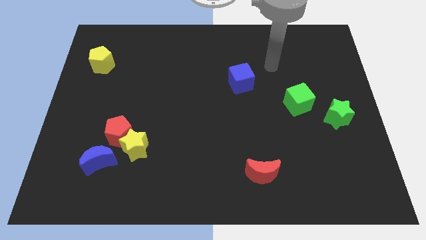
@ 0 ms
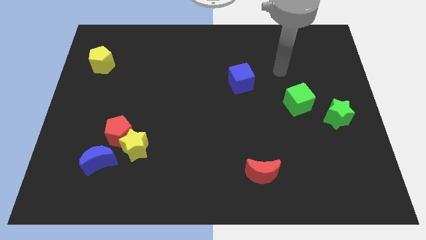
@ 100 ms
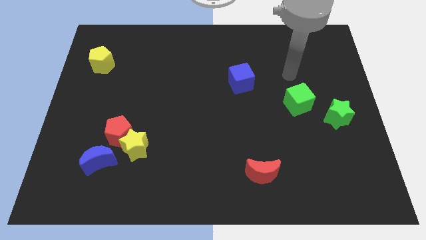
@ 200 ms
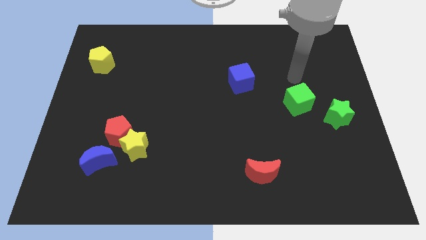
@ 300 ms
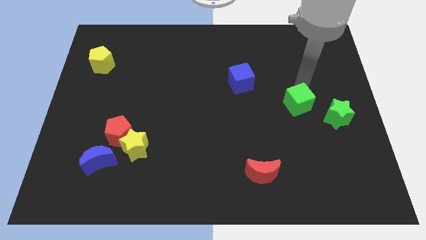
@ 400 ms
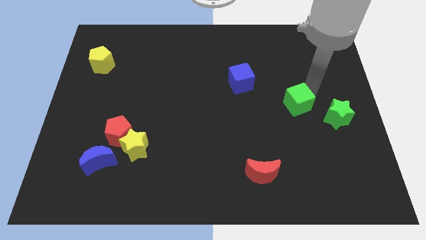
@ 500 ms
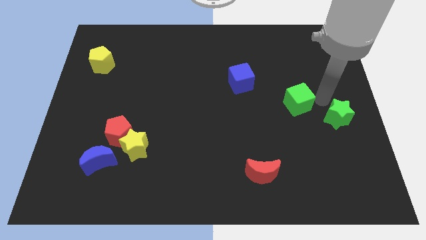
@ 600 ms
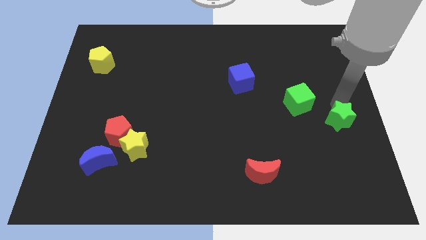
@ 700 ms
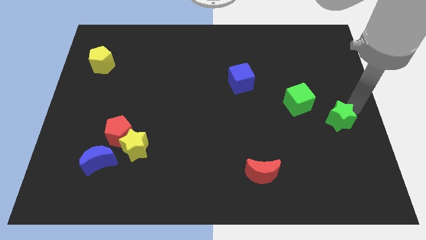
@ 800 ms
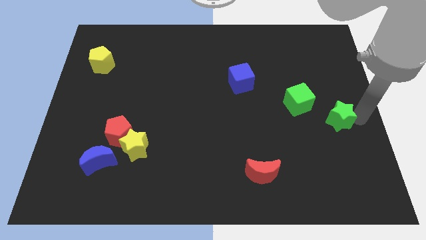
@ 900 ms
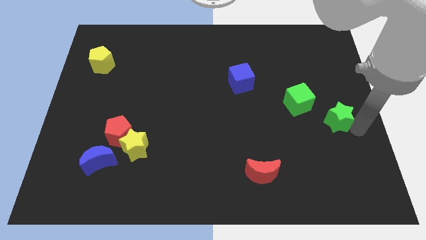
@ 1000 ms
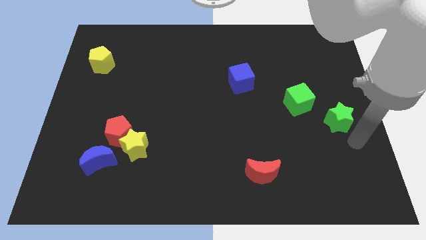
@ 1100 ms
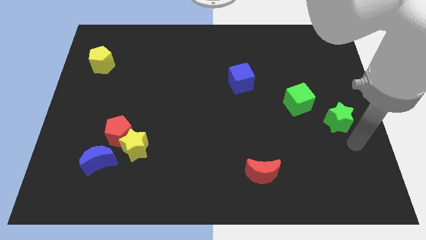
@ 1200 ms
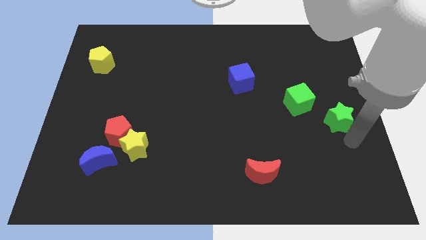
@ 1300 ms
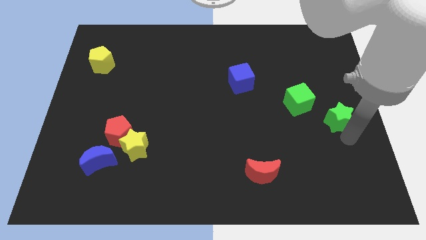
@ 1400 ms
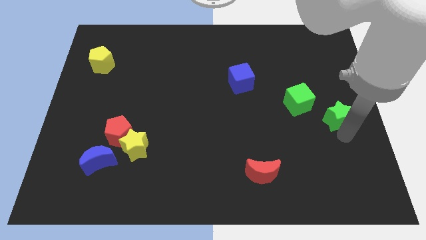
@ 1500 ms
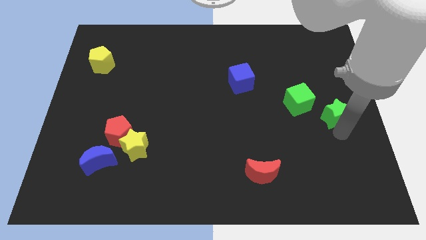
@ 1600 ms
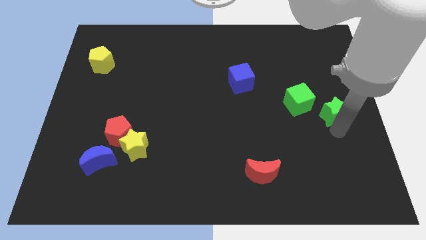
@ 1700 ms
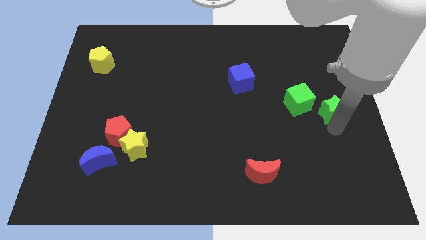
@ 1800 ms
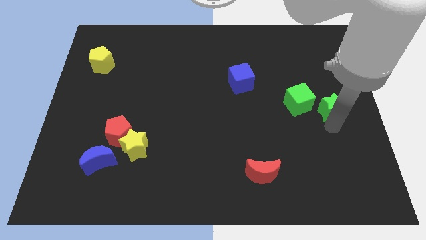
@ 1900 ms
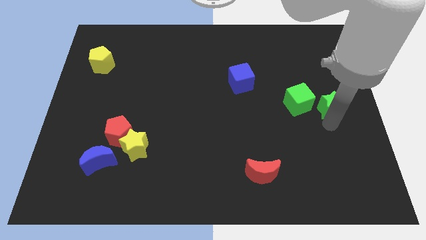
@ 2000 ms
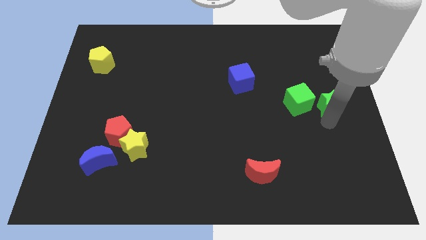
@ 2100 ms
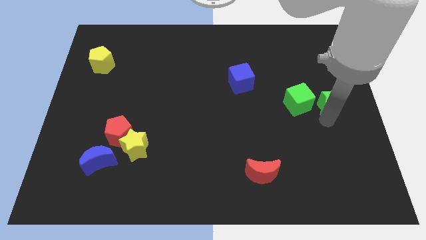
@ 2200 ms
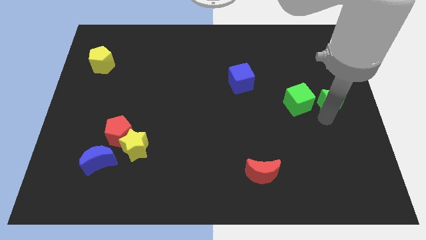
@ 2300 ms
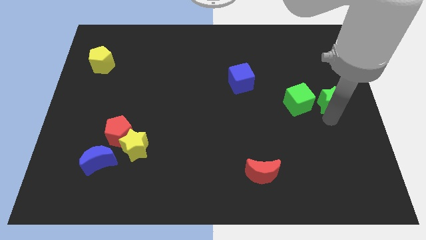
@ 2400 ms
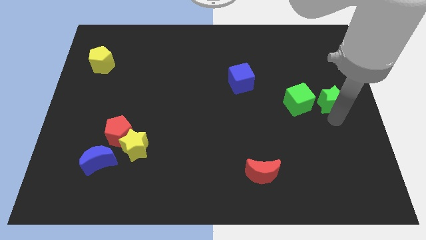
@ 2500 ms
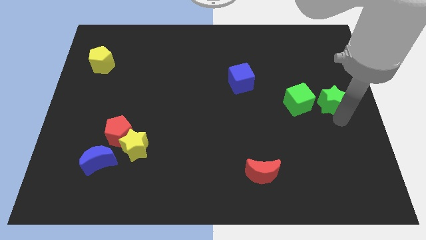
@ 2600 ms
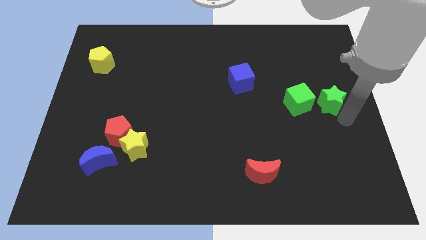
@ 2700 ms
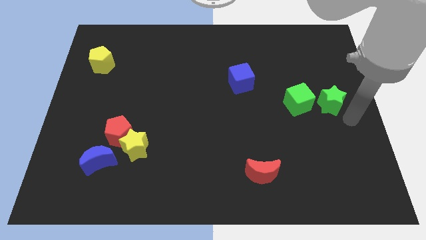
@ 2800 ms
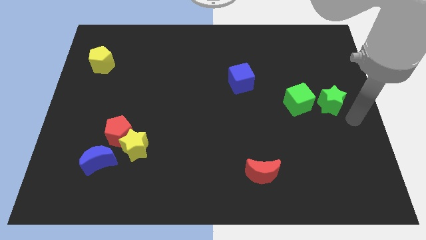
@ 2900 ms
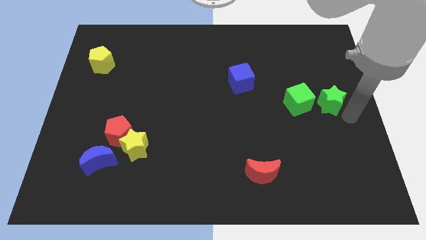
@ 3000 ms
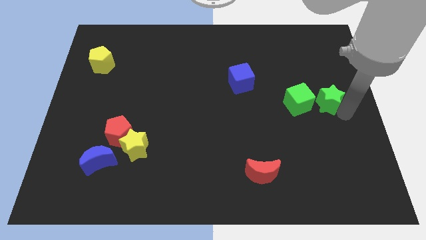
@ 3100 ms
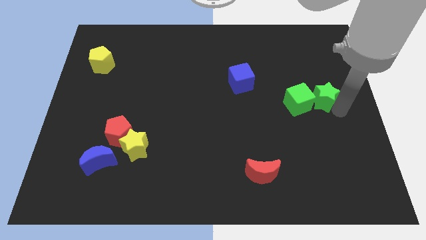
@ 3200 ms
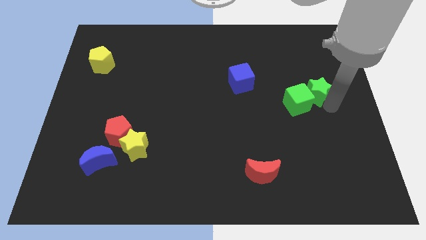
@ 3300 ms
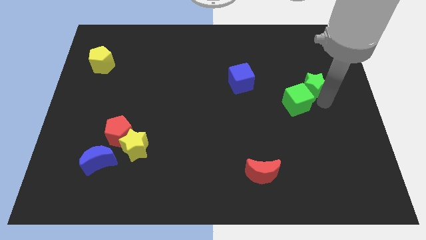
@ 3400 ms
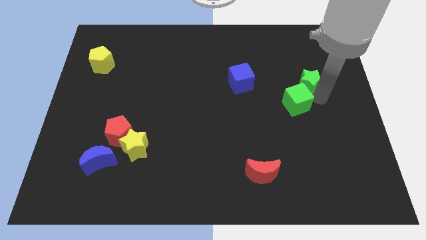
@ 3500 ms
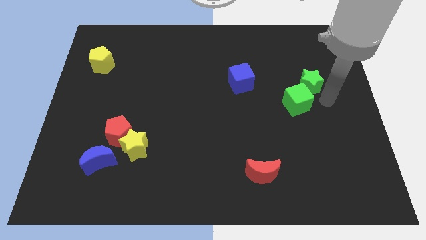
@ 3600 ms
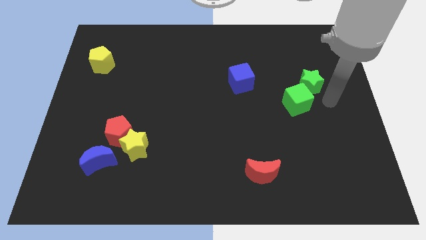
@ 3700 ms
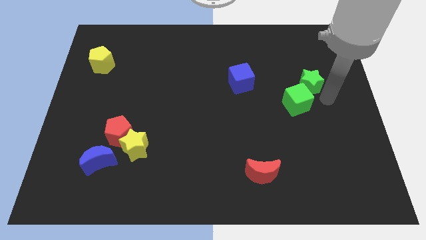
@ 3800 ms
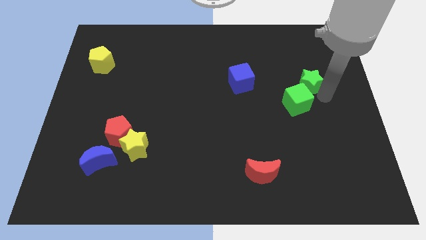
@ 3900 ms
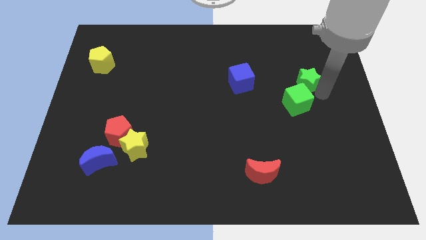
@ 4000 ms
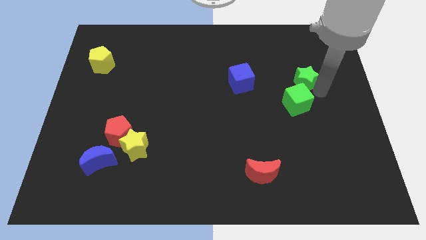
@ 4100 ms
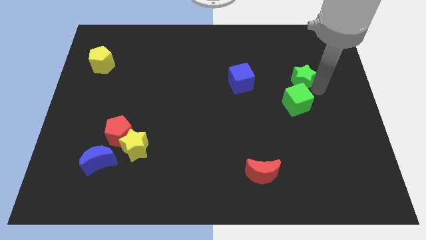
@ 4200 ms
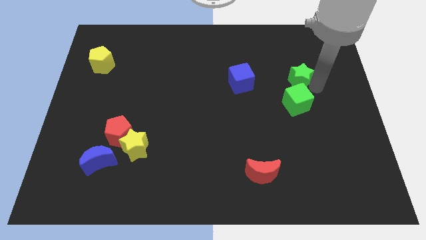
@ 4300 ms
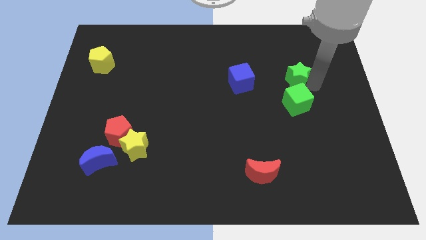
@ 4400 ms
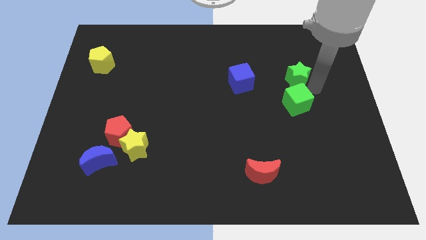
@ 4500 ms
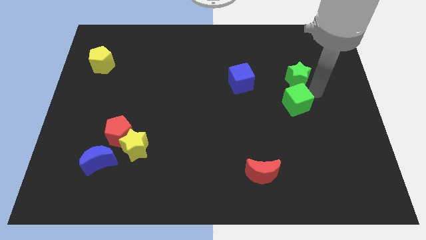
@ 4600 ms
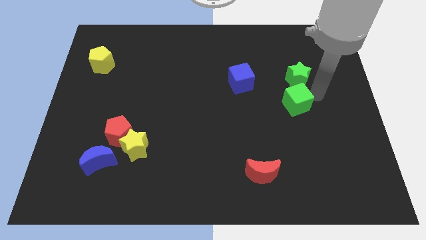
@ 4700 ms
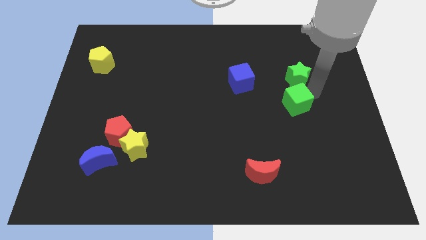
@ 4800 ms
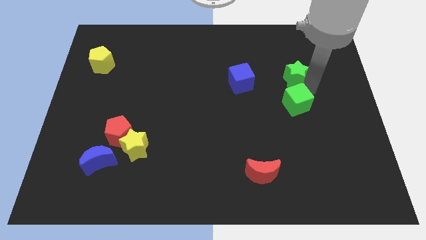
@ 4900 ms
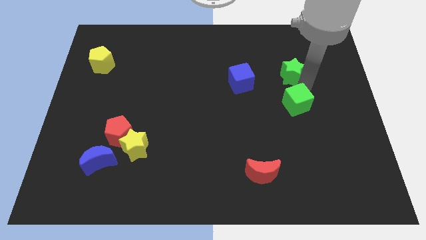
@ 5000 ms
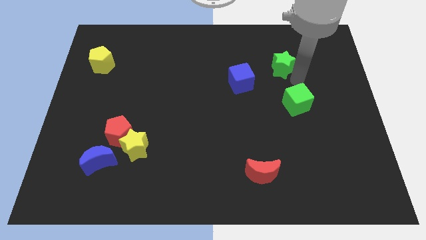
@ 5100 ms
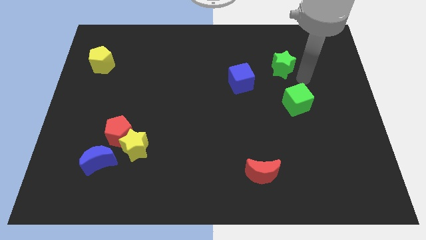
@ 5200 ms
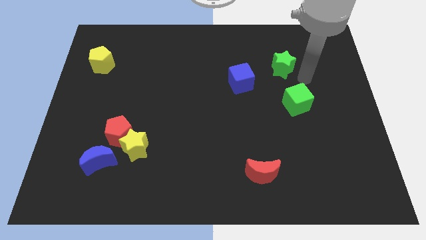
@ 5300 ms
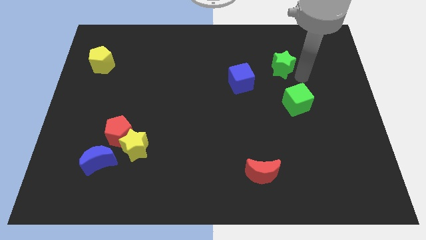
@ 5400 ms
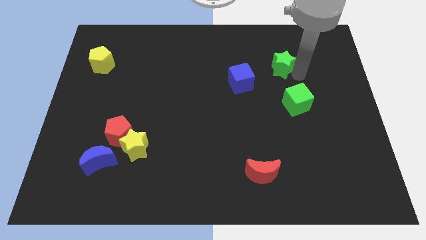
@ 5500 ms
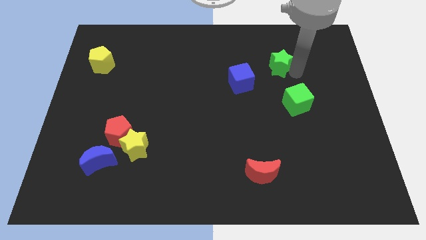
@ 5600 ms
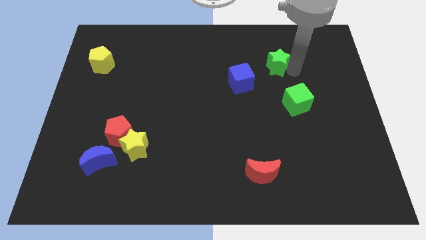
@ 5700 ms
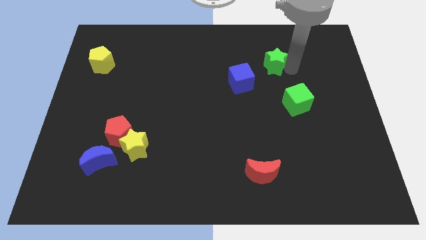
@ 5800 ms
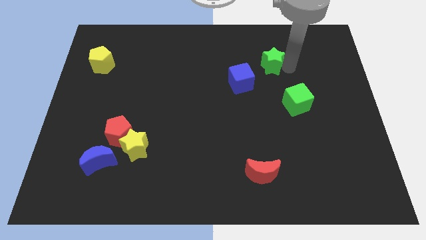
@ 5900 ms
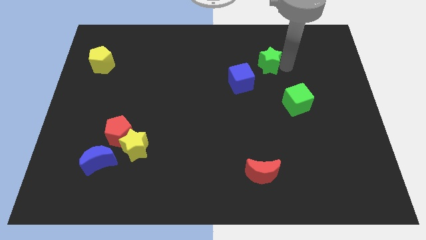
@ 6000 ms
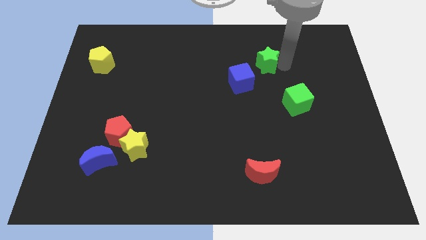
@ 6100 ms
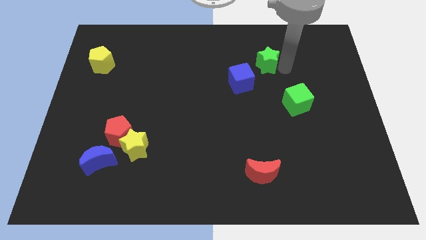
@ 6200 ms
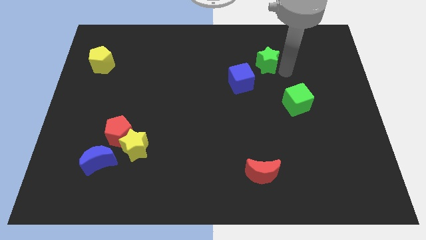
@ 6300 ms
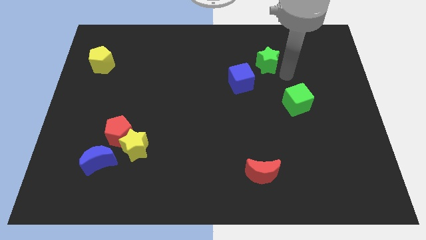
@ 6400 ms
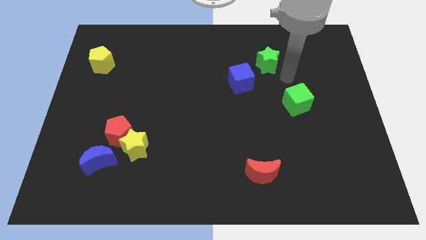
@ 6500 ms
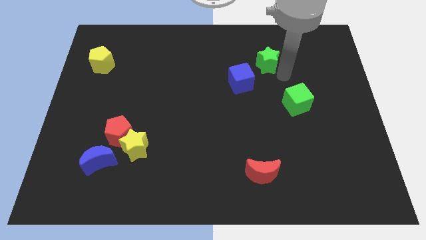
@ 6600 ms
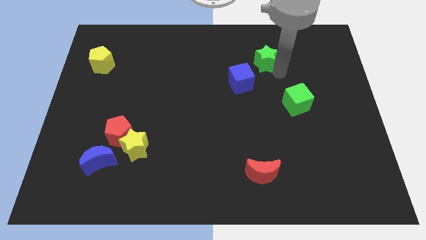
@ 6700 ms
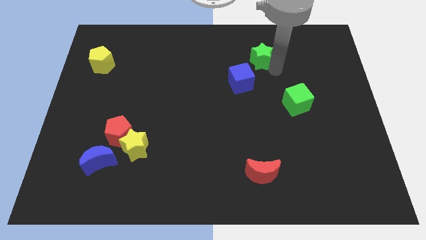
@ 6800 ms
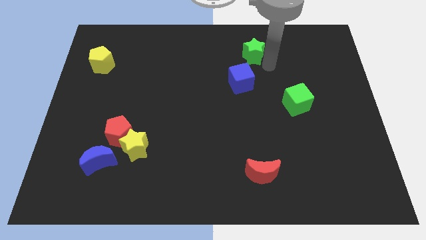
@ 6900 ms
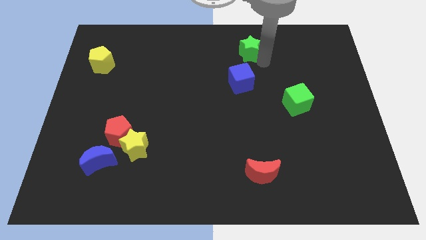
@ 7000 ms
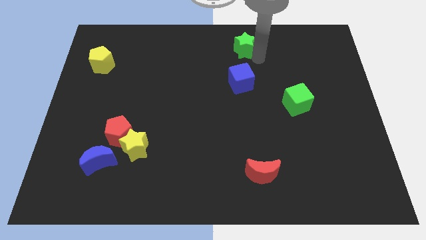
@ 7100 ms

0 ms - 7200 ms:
slide the green star to the top
